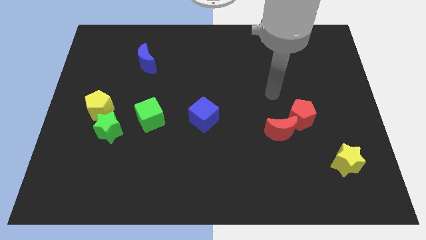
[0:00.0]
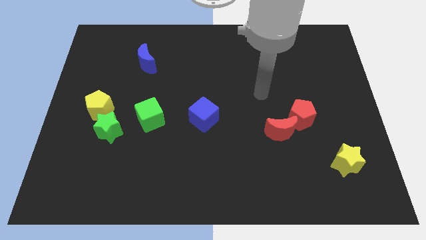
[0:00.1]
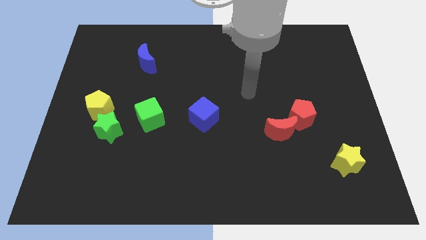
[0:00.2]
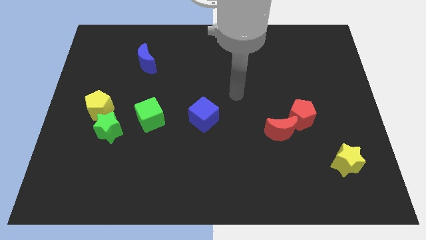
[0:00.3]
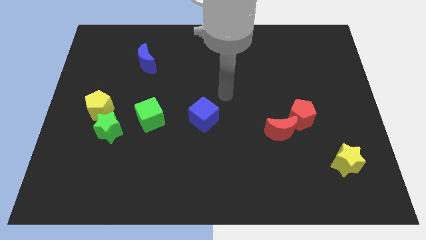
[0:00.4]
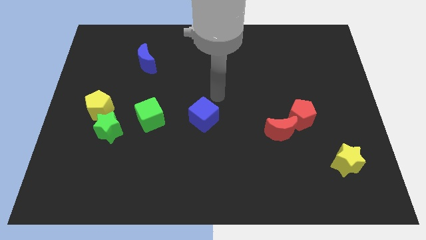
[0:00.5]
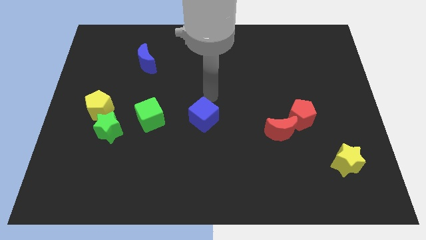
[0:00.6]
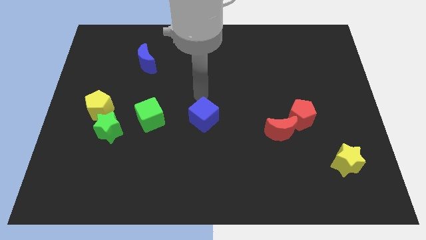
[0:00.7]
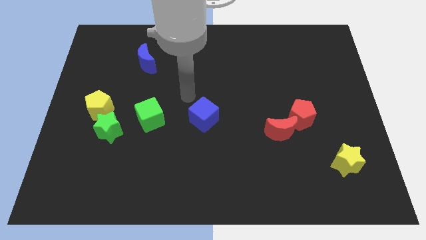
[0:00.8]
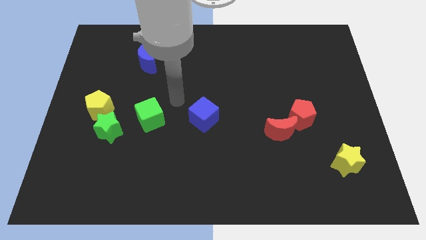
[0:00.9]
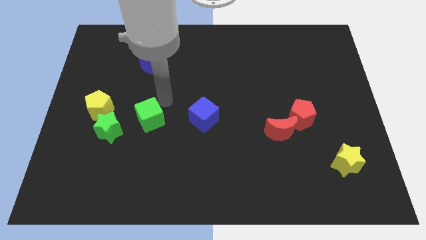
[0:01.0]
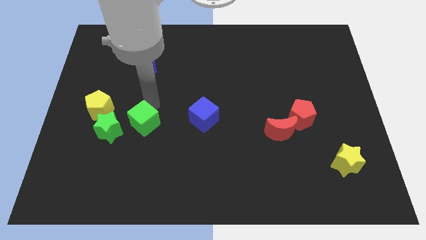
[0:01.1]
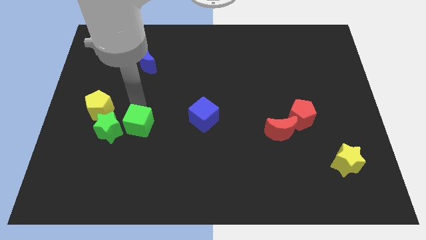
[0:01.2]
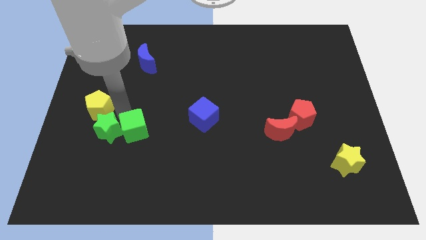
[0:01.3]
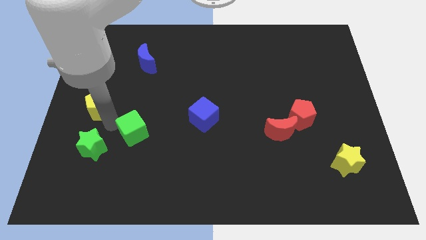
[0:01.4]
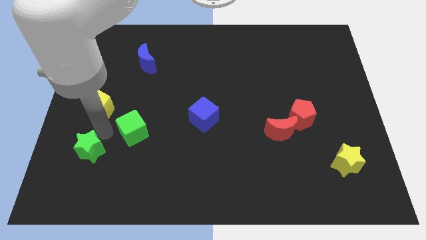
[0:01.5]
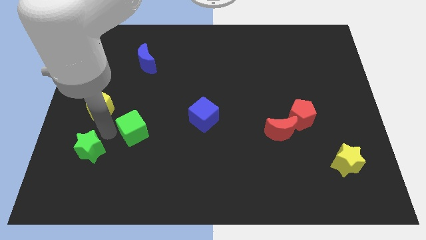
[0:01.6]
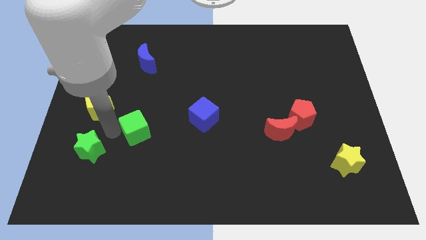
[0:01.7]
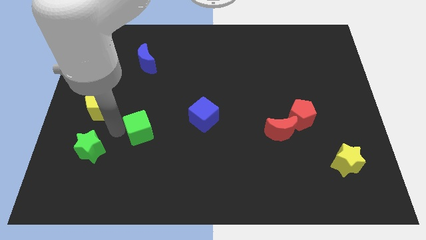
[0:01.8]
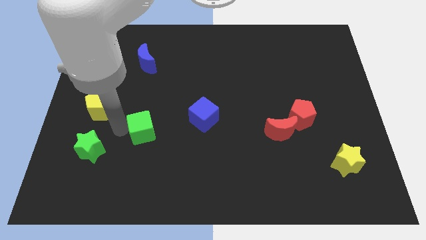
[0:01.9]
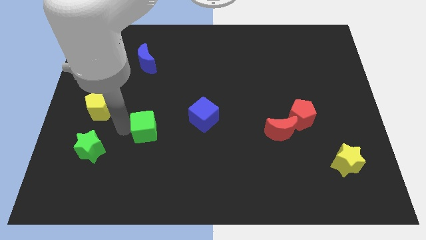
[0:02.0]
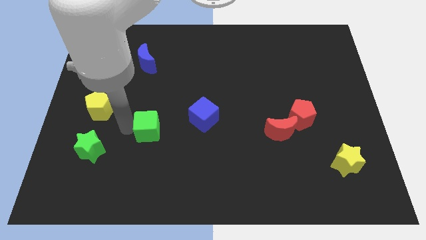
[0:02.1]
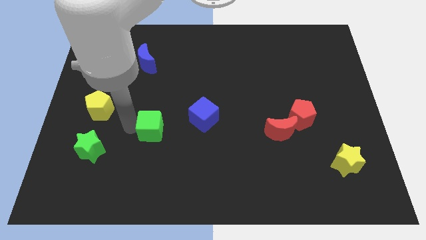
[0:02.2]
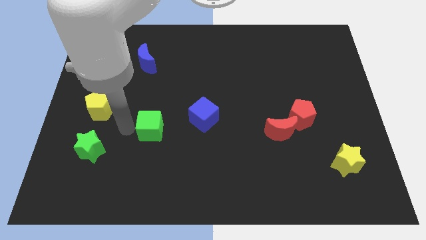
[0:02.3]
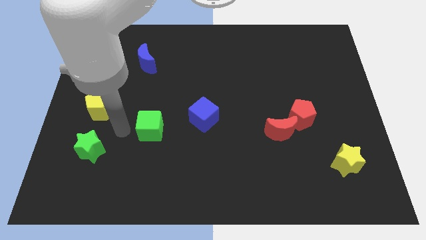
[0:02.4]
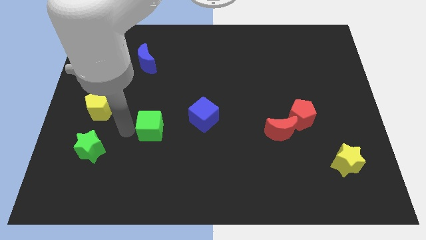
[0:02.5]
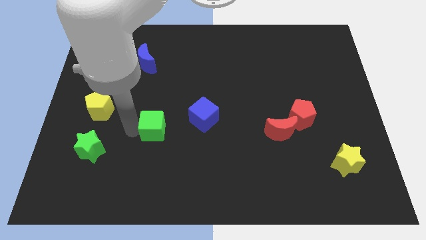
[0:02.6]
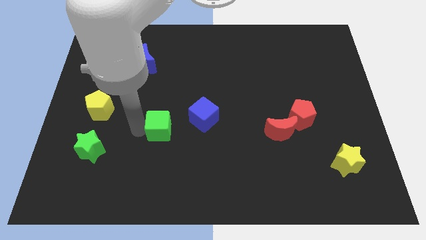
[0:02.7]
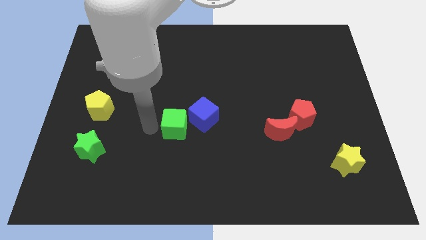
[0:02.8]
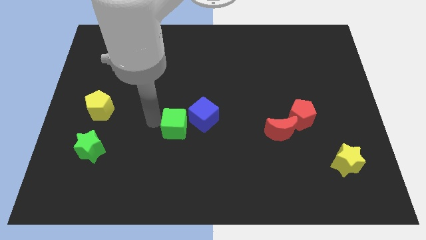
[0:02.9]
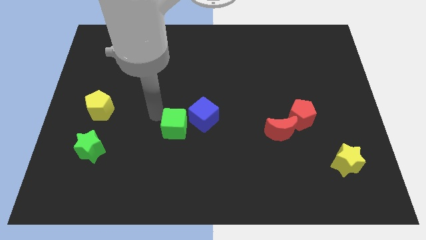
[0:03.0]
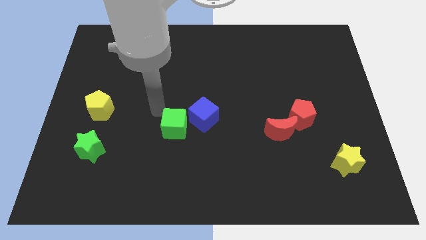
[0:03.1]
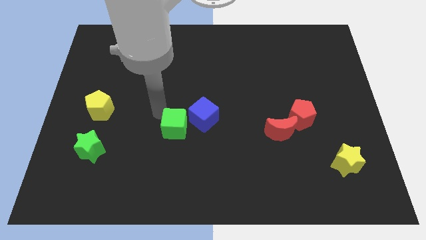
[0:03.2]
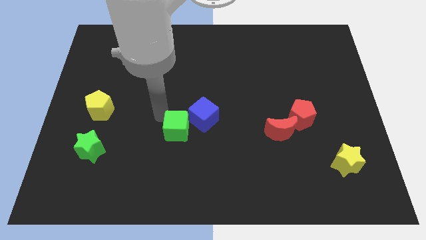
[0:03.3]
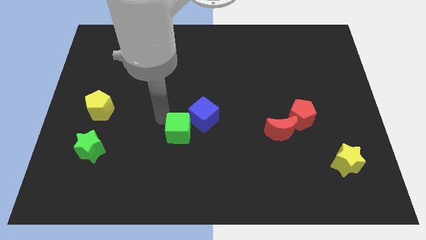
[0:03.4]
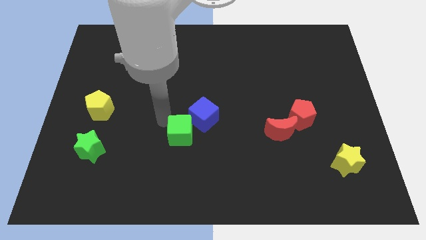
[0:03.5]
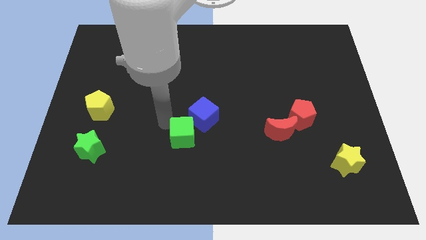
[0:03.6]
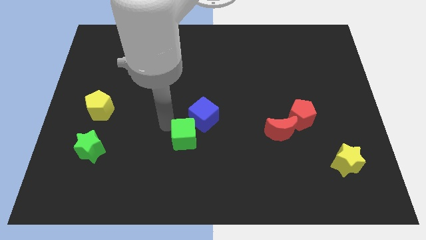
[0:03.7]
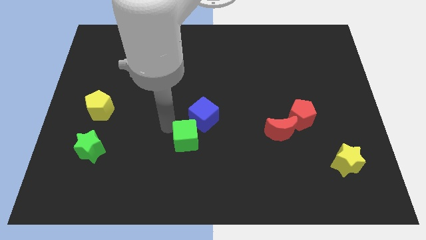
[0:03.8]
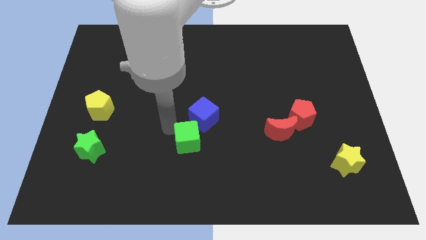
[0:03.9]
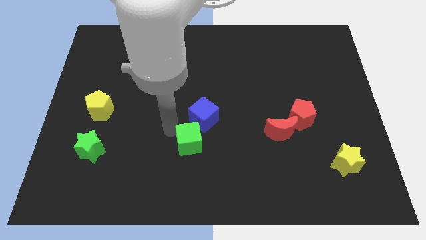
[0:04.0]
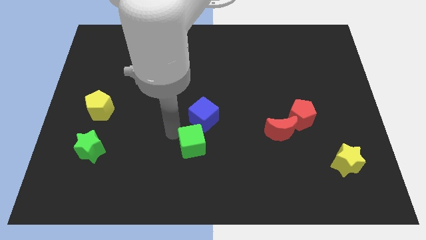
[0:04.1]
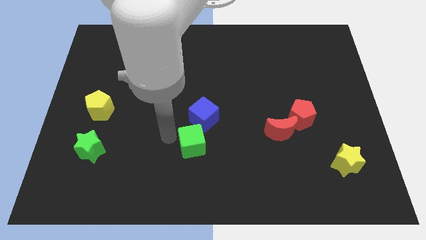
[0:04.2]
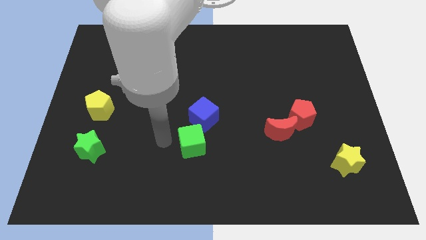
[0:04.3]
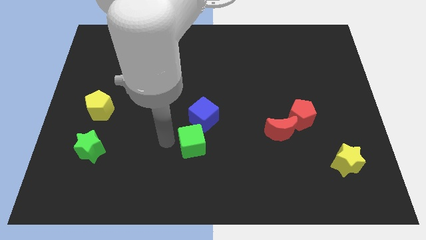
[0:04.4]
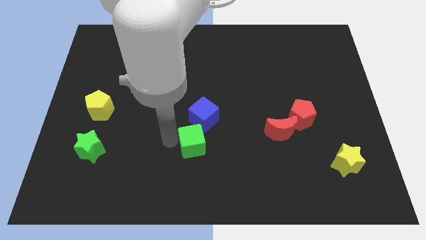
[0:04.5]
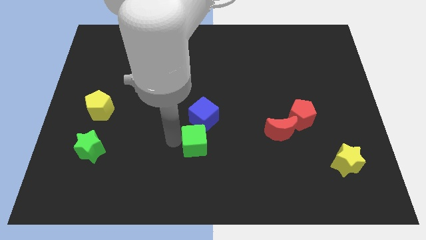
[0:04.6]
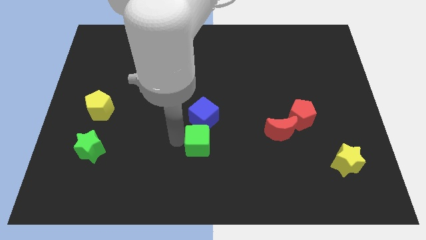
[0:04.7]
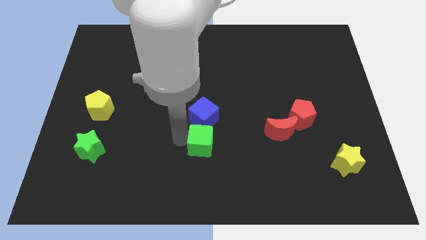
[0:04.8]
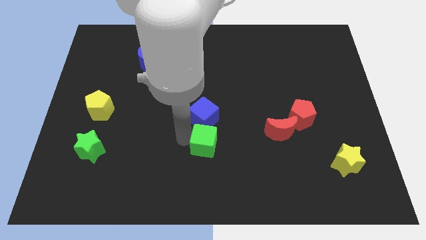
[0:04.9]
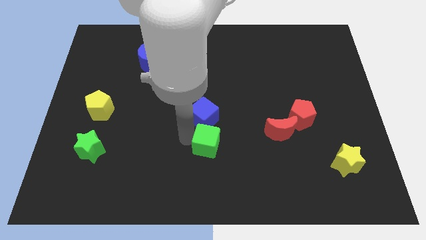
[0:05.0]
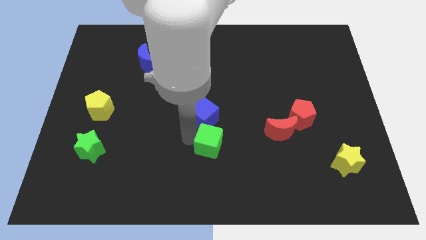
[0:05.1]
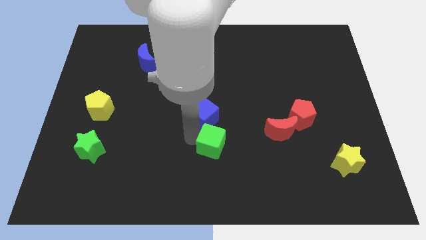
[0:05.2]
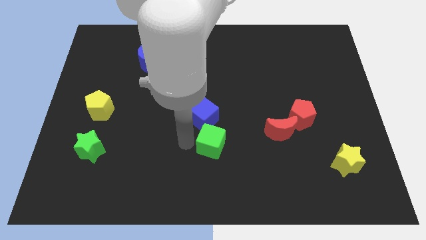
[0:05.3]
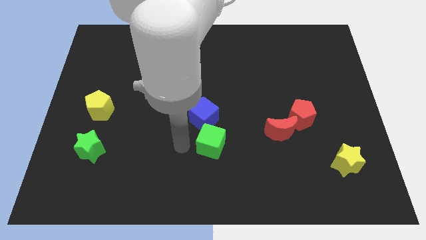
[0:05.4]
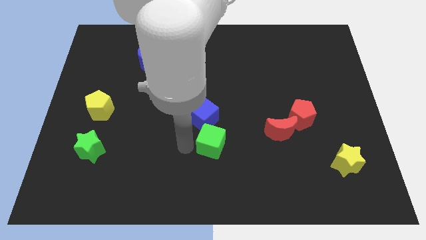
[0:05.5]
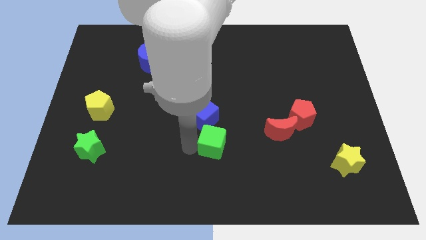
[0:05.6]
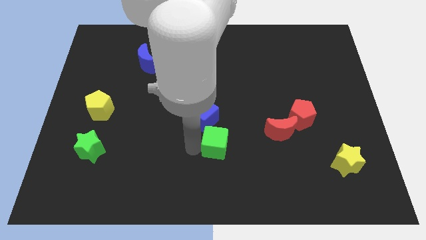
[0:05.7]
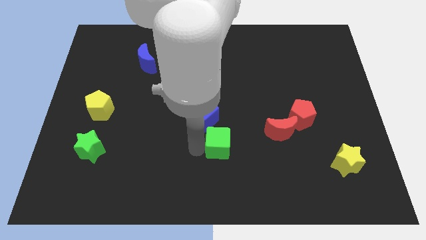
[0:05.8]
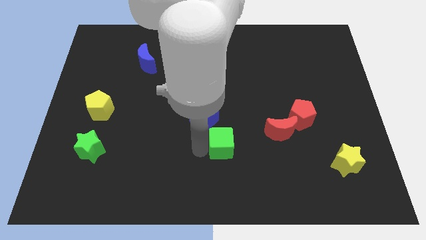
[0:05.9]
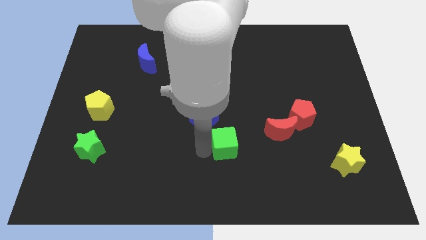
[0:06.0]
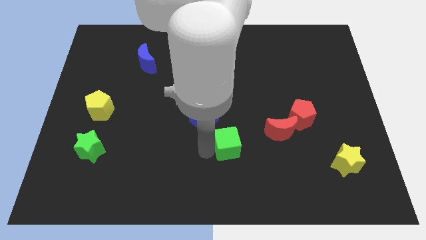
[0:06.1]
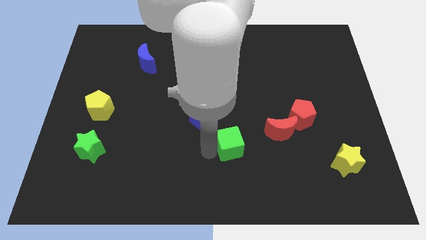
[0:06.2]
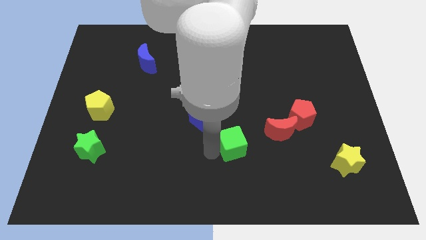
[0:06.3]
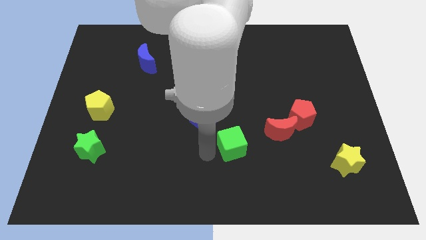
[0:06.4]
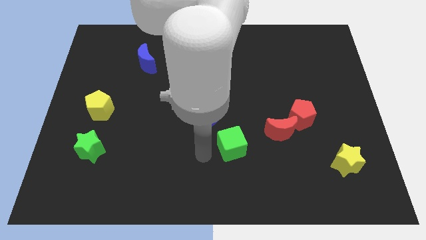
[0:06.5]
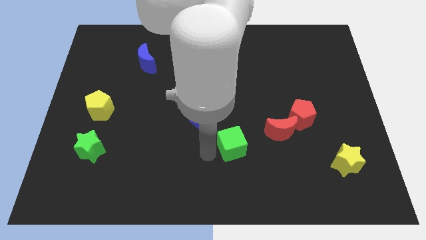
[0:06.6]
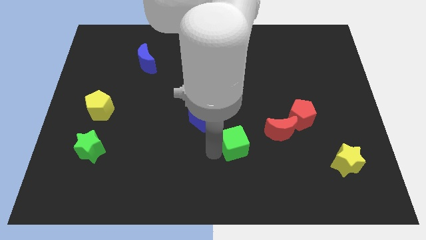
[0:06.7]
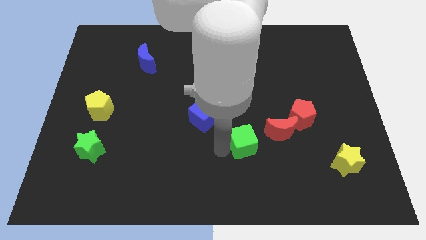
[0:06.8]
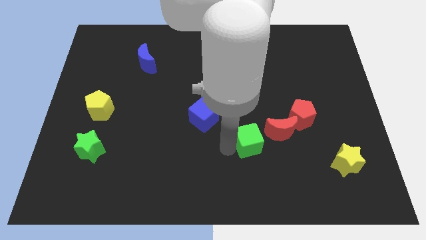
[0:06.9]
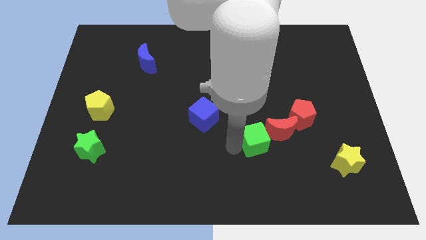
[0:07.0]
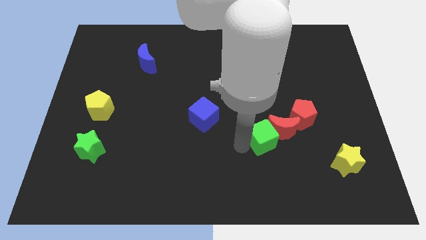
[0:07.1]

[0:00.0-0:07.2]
put the green cube next to the red moon
